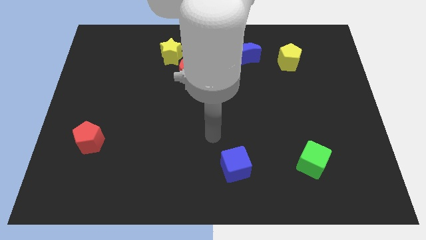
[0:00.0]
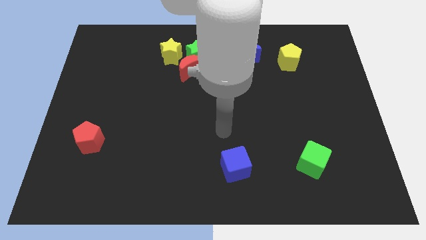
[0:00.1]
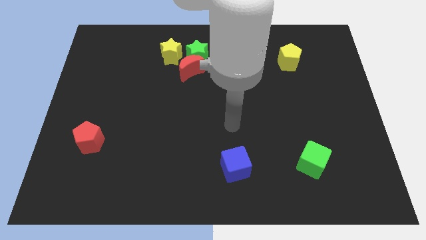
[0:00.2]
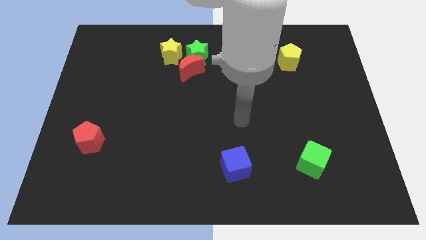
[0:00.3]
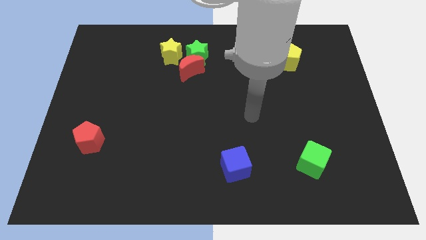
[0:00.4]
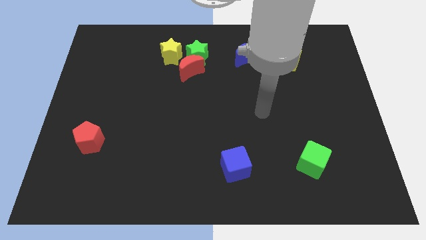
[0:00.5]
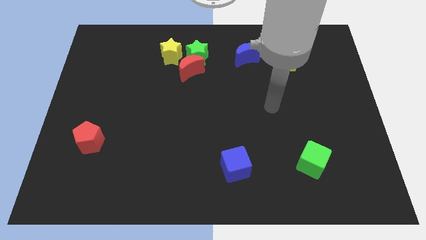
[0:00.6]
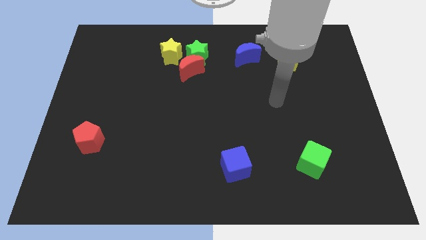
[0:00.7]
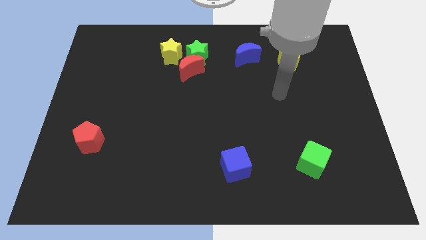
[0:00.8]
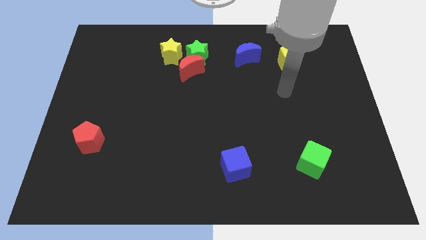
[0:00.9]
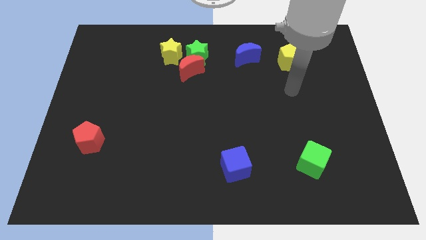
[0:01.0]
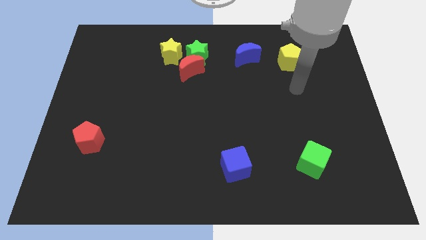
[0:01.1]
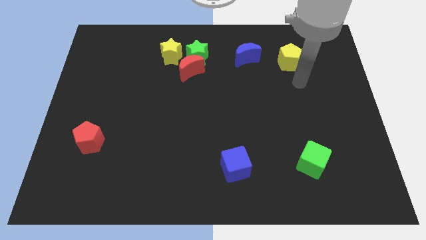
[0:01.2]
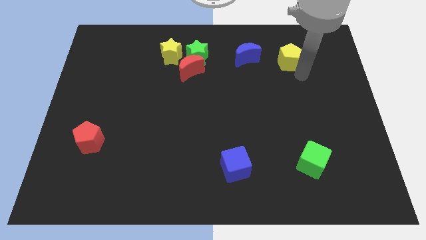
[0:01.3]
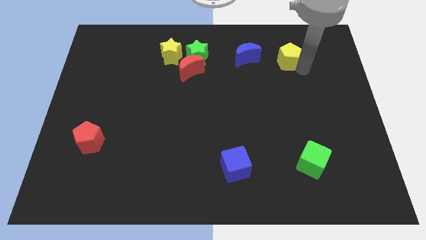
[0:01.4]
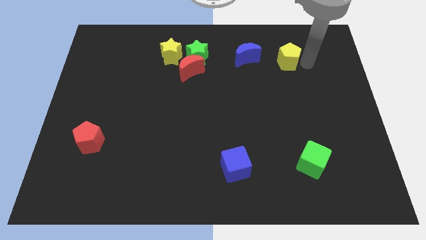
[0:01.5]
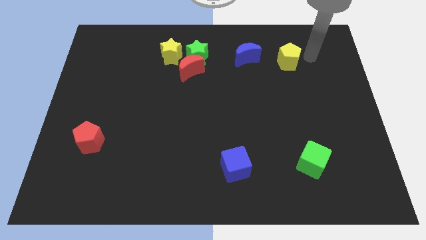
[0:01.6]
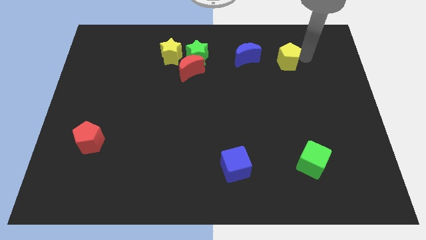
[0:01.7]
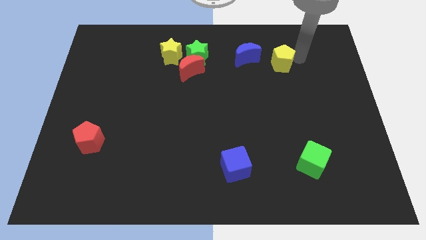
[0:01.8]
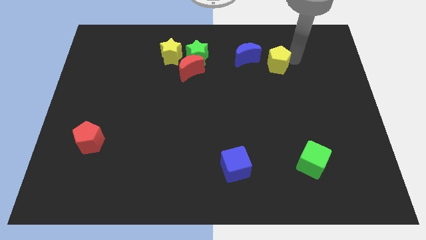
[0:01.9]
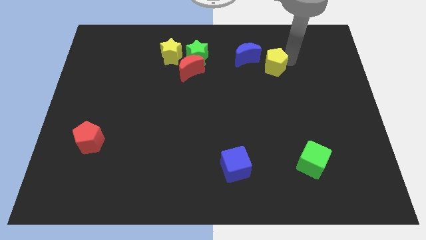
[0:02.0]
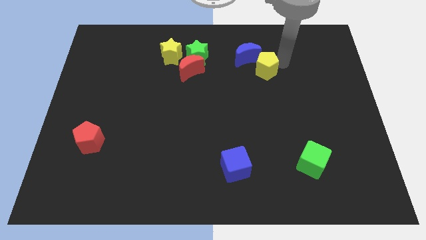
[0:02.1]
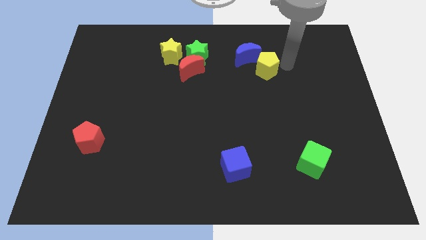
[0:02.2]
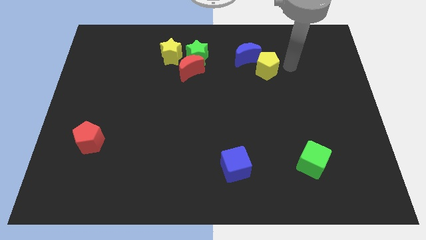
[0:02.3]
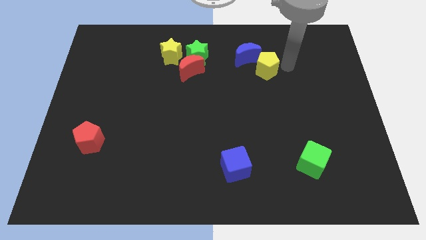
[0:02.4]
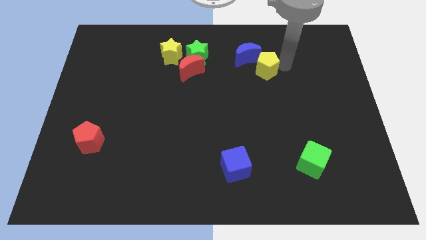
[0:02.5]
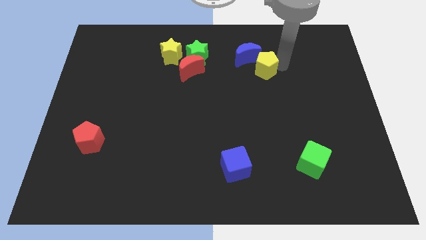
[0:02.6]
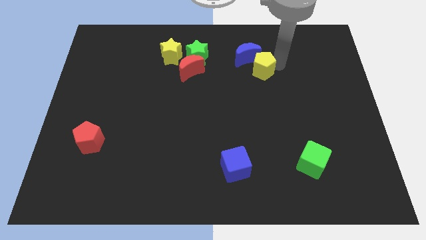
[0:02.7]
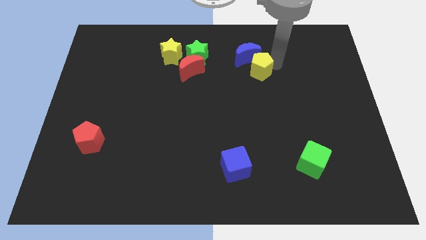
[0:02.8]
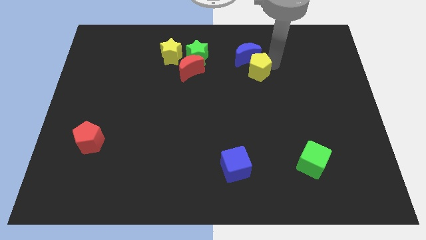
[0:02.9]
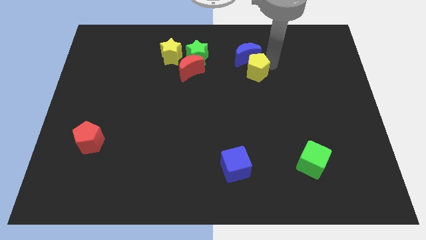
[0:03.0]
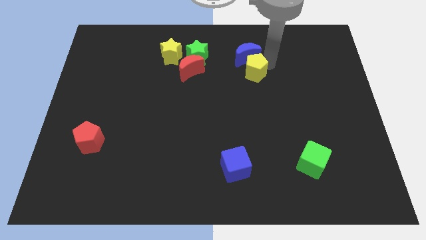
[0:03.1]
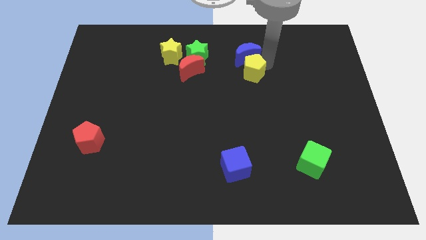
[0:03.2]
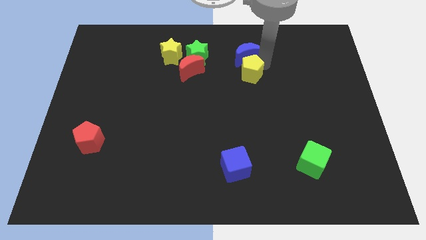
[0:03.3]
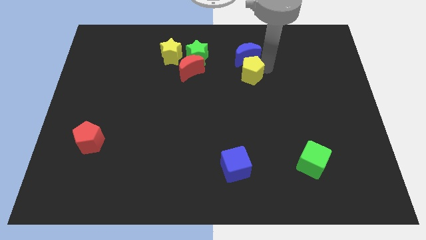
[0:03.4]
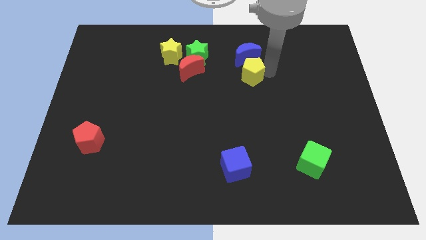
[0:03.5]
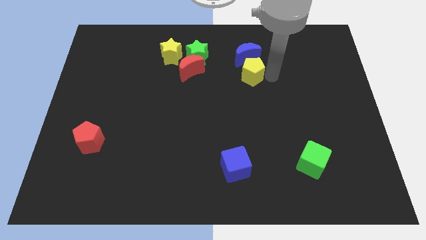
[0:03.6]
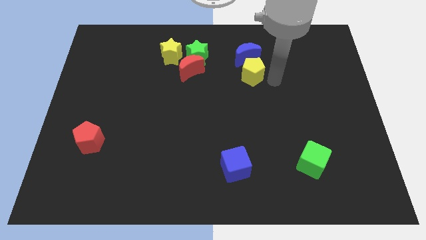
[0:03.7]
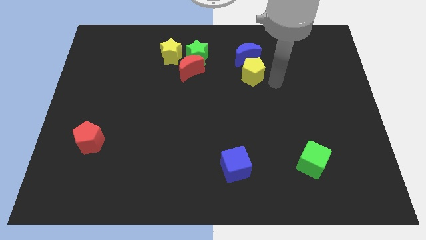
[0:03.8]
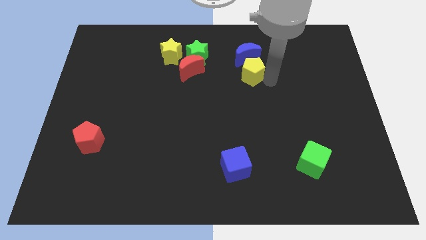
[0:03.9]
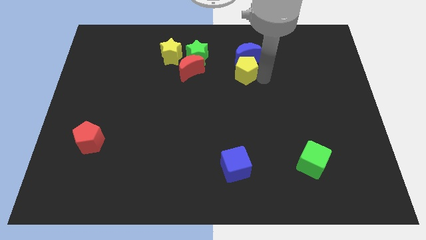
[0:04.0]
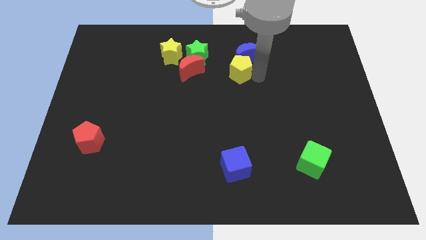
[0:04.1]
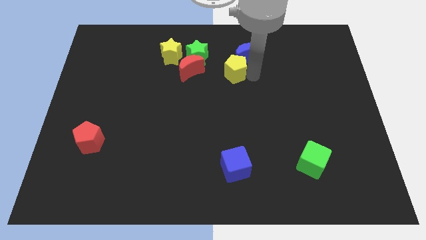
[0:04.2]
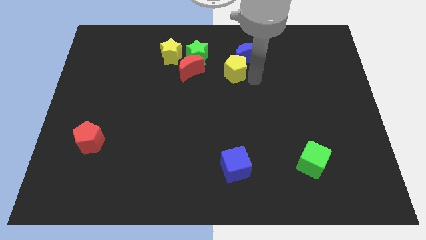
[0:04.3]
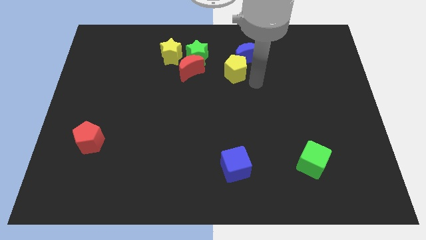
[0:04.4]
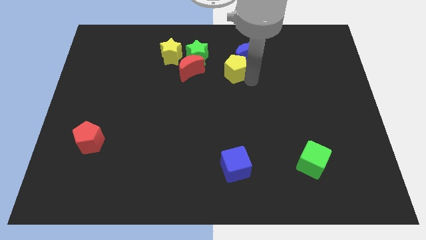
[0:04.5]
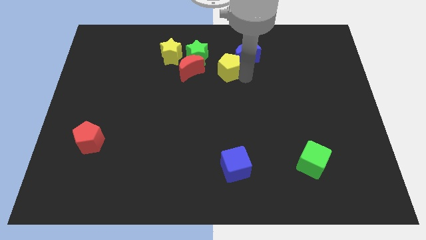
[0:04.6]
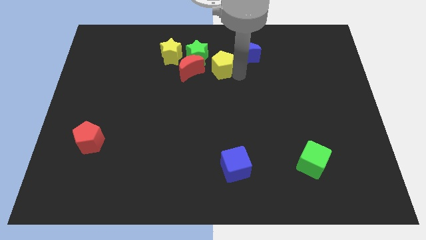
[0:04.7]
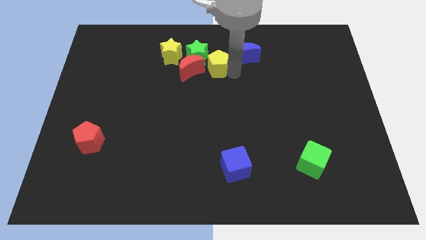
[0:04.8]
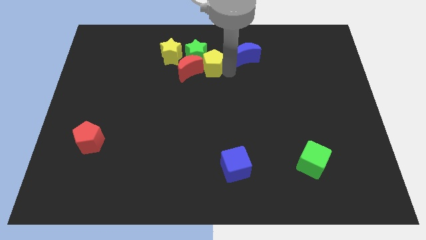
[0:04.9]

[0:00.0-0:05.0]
move the yellow pentagon close to the green star

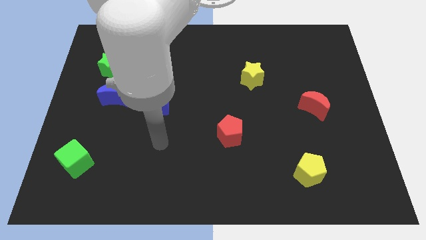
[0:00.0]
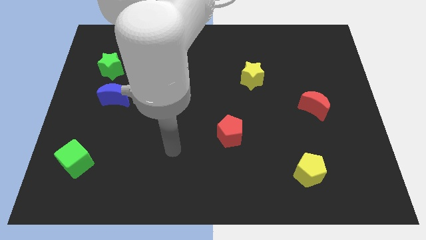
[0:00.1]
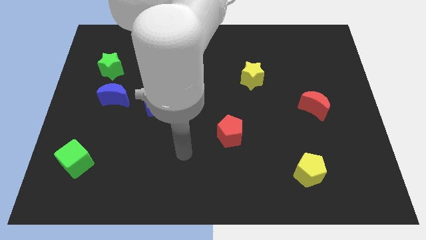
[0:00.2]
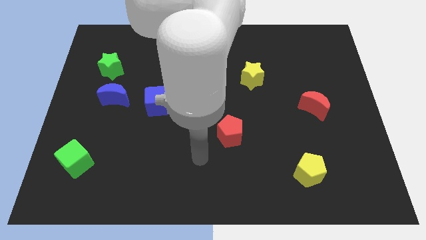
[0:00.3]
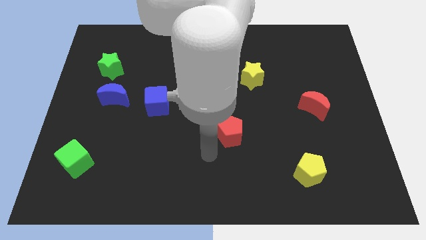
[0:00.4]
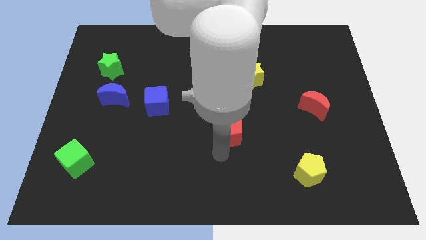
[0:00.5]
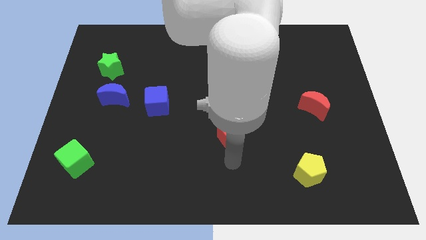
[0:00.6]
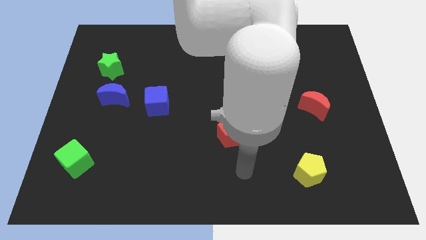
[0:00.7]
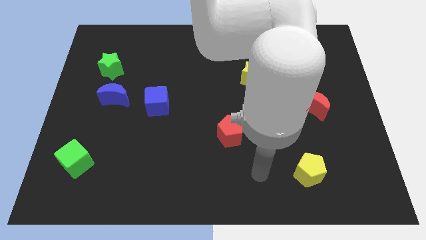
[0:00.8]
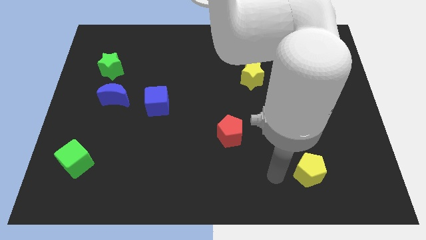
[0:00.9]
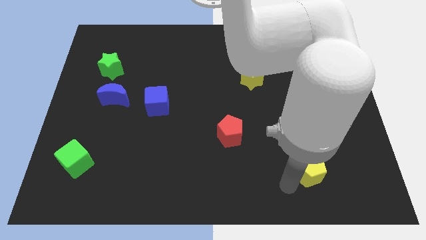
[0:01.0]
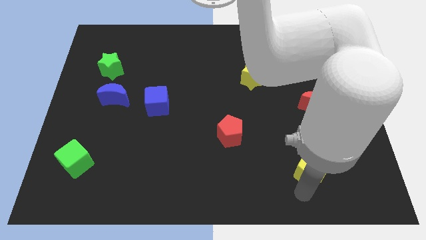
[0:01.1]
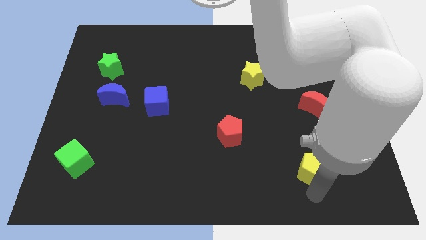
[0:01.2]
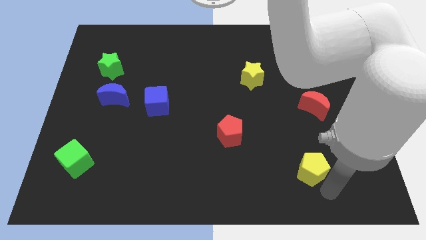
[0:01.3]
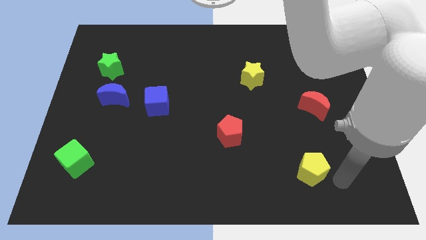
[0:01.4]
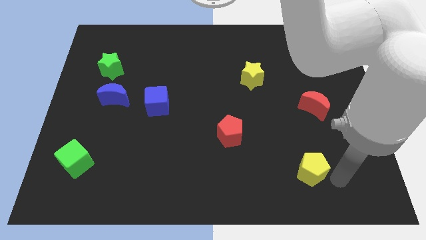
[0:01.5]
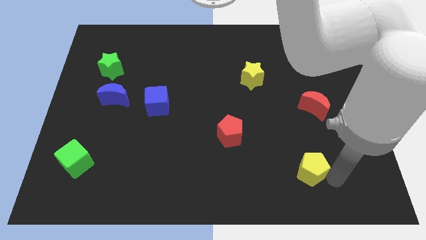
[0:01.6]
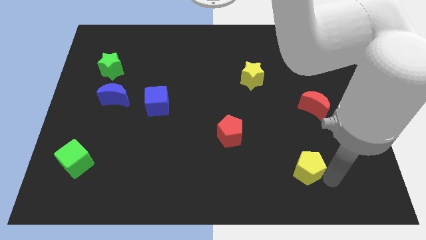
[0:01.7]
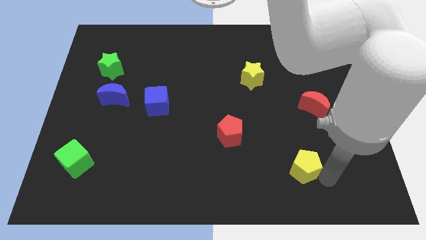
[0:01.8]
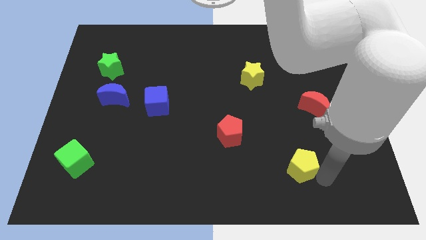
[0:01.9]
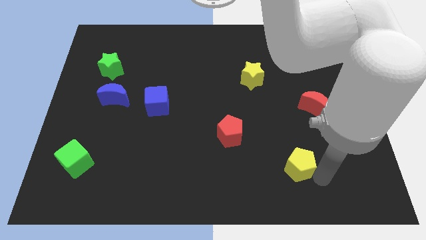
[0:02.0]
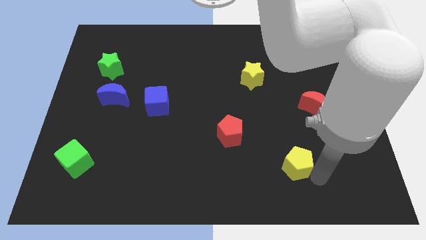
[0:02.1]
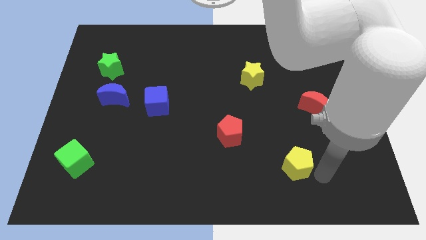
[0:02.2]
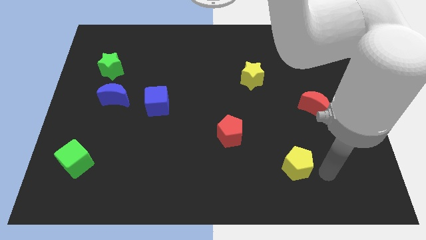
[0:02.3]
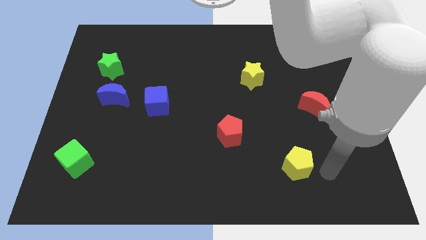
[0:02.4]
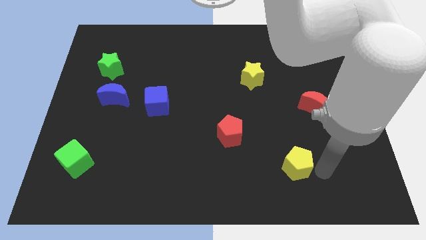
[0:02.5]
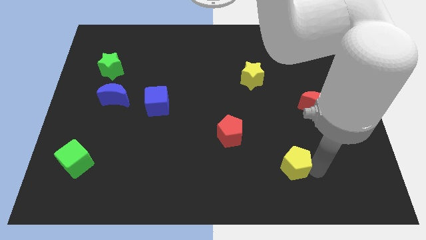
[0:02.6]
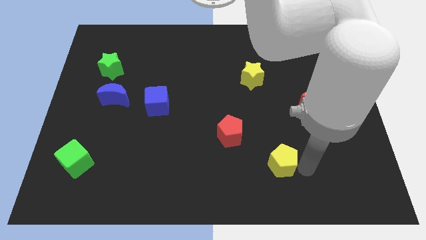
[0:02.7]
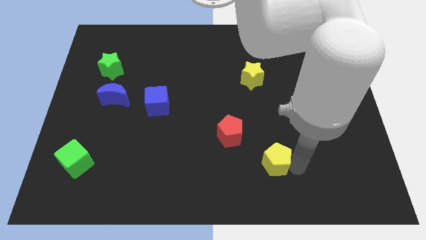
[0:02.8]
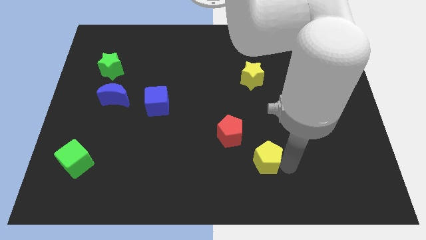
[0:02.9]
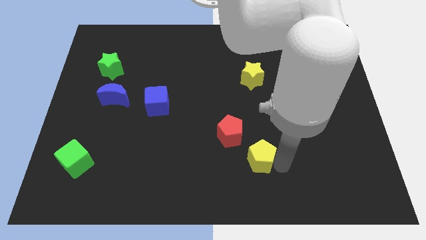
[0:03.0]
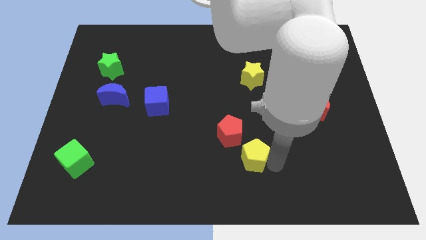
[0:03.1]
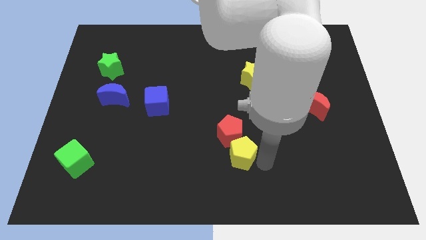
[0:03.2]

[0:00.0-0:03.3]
move the yellow pentagon next to the red pentagon
